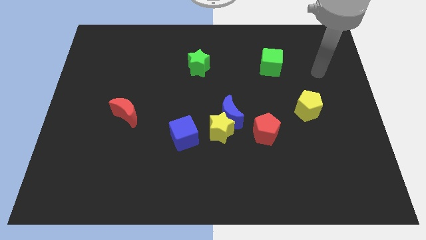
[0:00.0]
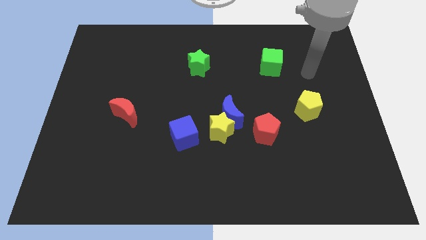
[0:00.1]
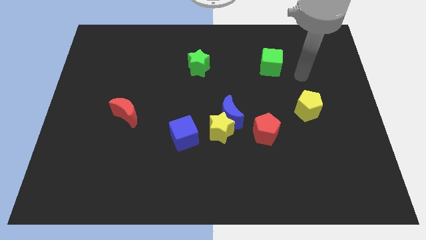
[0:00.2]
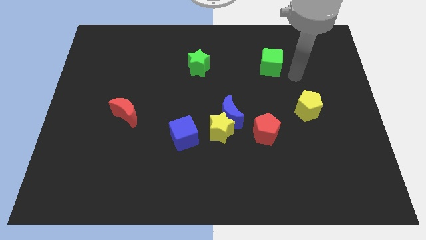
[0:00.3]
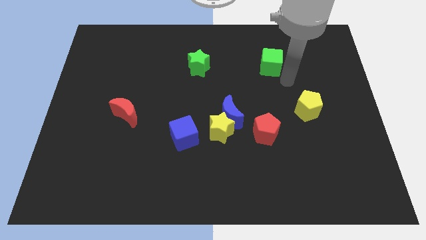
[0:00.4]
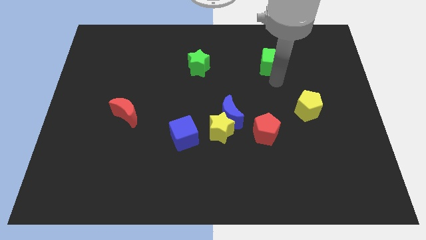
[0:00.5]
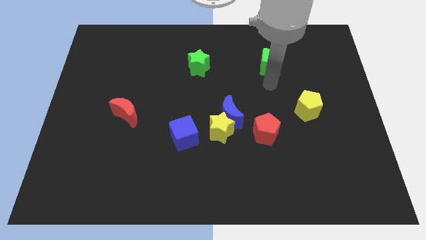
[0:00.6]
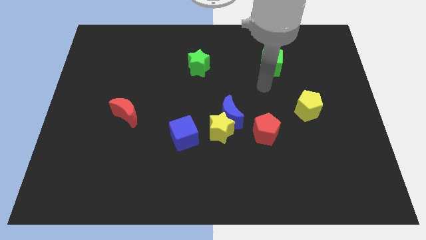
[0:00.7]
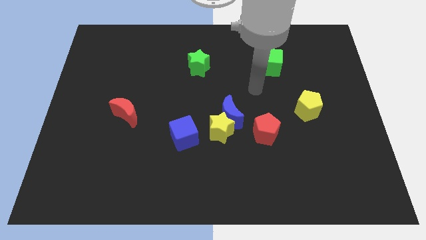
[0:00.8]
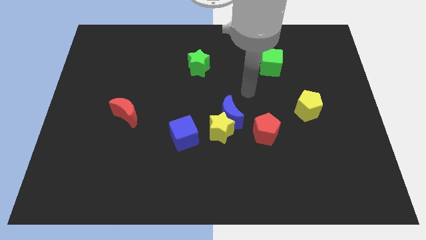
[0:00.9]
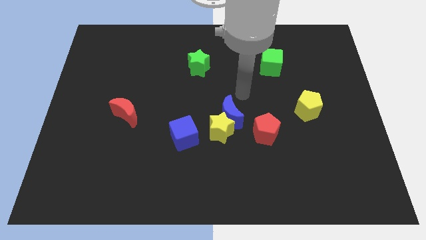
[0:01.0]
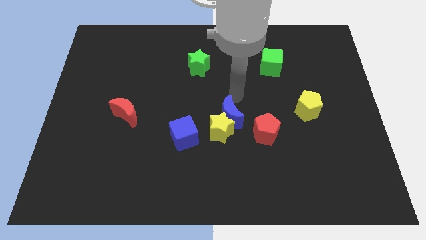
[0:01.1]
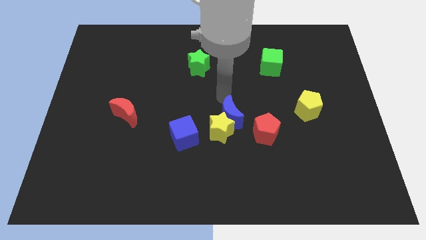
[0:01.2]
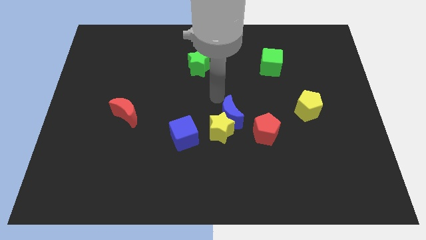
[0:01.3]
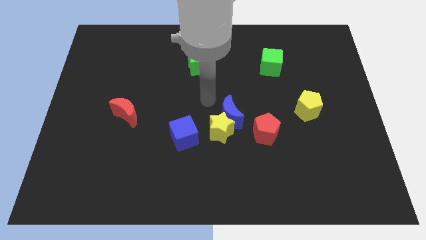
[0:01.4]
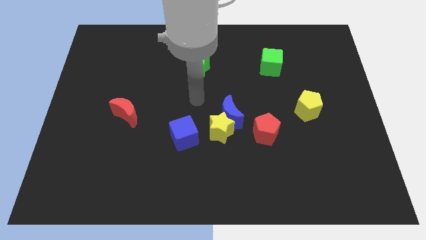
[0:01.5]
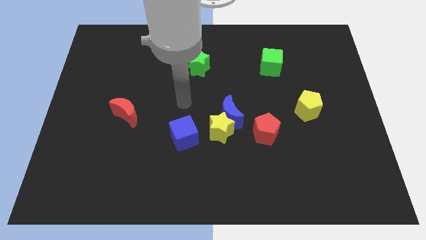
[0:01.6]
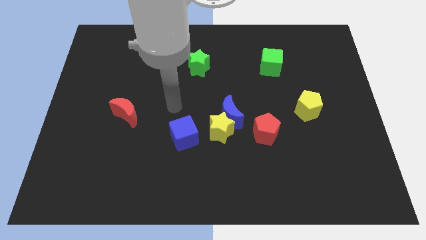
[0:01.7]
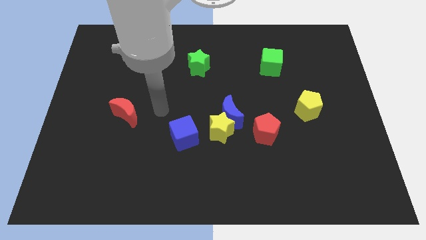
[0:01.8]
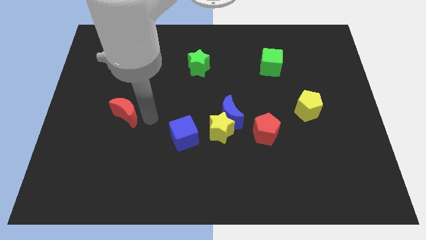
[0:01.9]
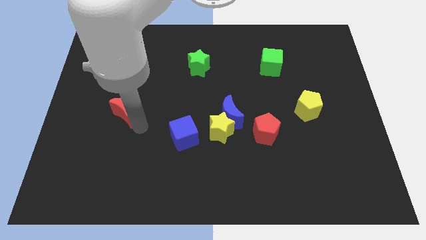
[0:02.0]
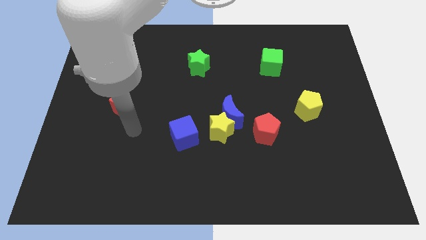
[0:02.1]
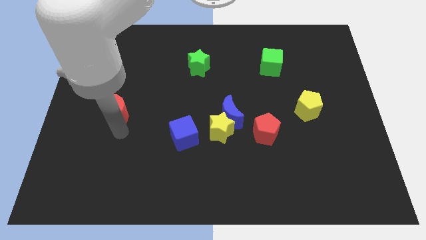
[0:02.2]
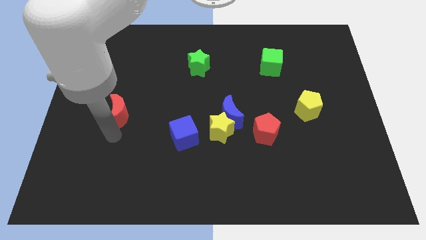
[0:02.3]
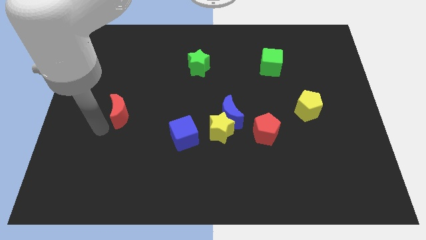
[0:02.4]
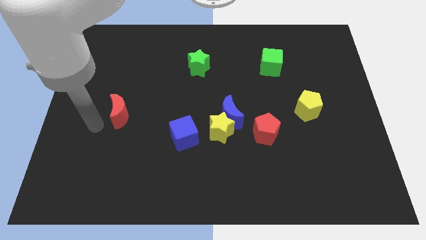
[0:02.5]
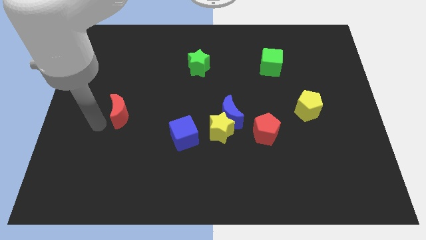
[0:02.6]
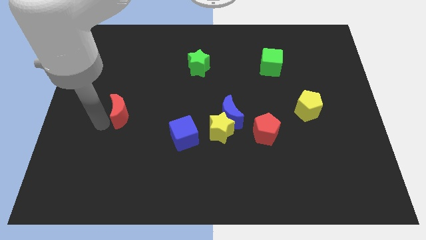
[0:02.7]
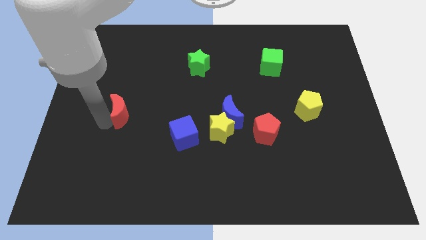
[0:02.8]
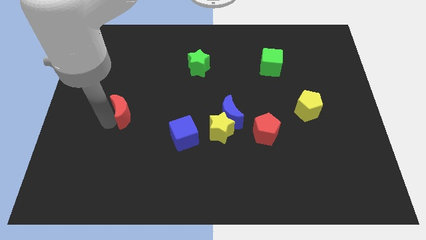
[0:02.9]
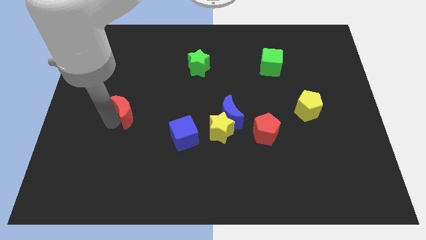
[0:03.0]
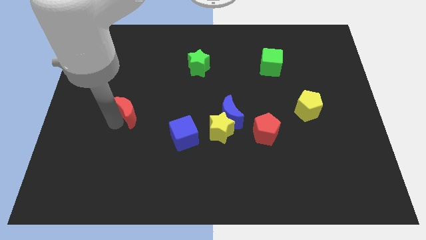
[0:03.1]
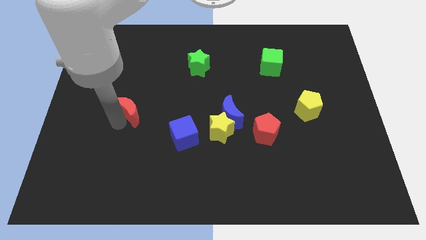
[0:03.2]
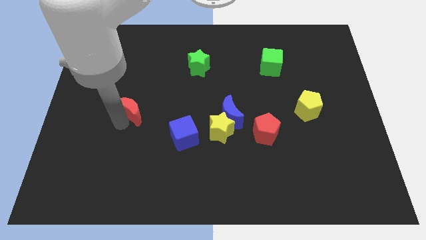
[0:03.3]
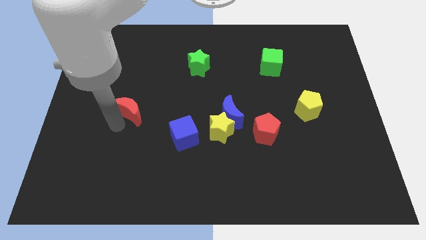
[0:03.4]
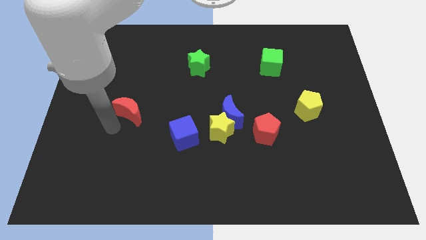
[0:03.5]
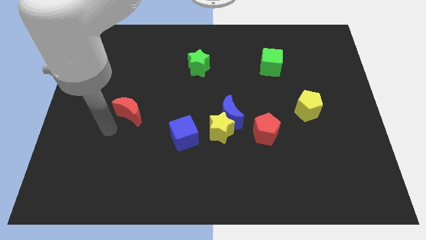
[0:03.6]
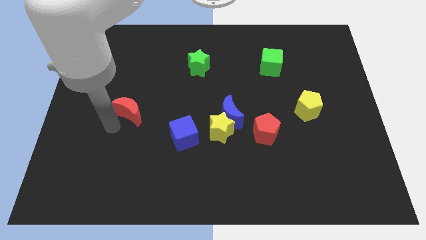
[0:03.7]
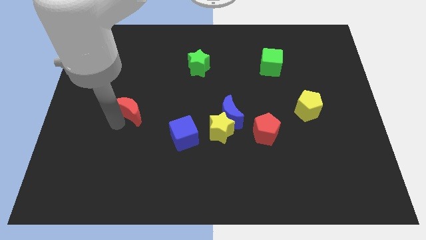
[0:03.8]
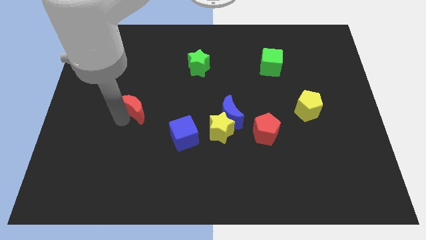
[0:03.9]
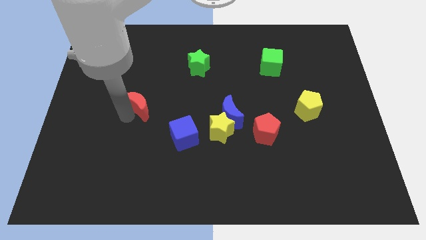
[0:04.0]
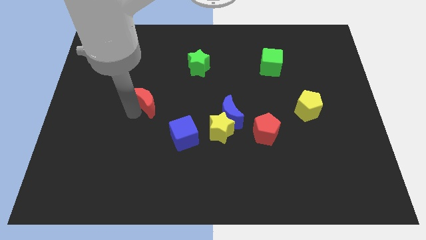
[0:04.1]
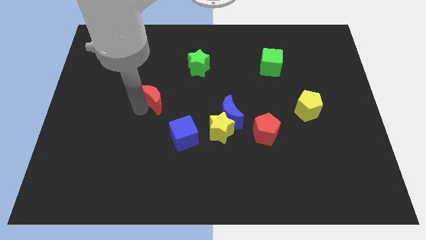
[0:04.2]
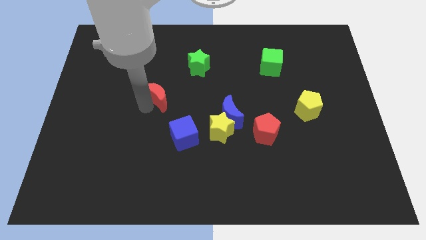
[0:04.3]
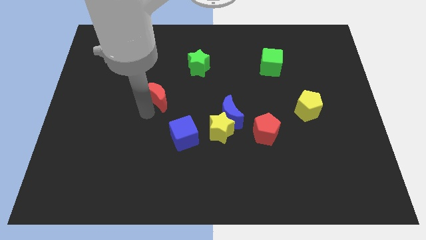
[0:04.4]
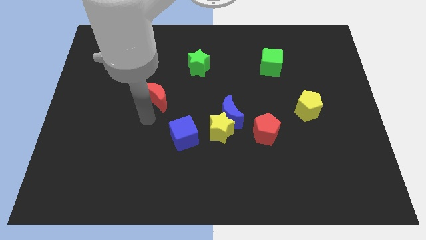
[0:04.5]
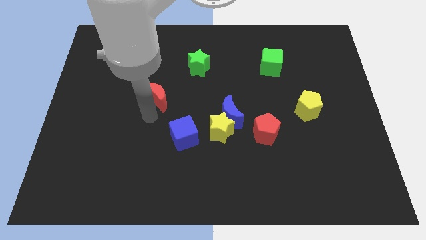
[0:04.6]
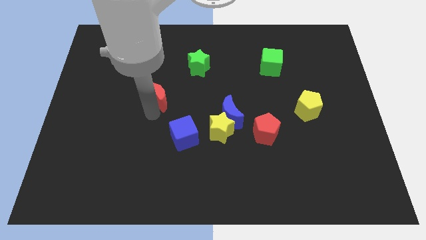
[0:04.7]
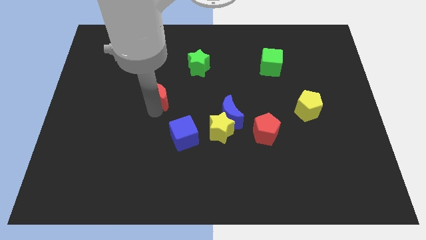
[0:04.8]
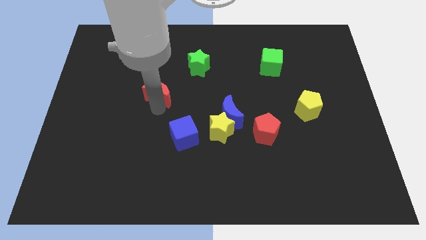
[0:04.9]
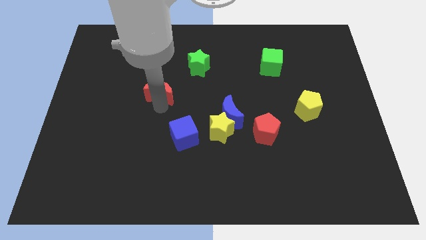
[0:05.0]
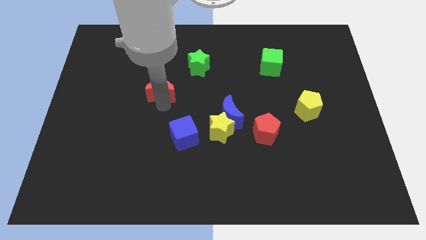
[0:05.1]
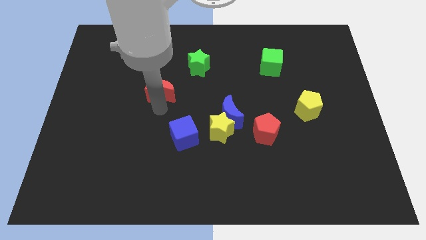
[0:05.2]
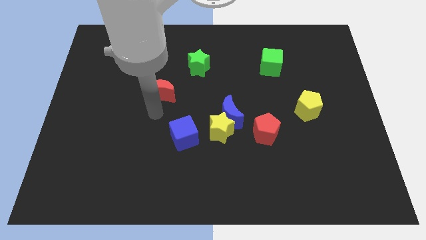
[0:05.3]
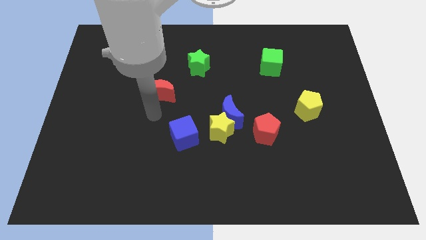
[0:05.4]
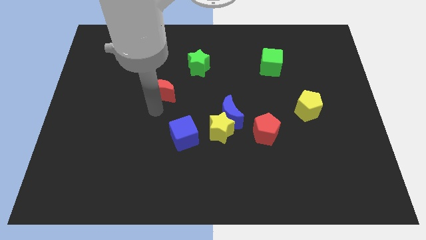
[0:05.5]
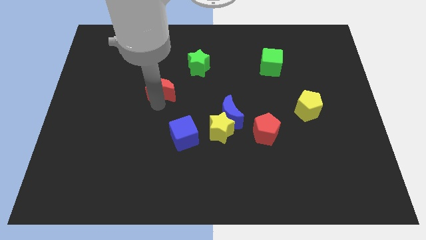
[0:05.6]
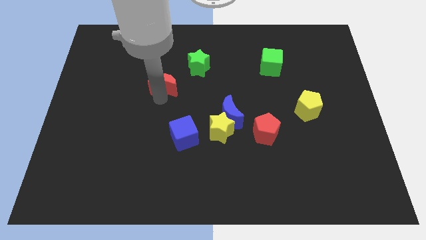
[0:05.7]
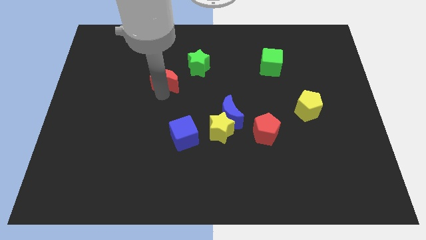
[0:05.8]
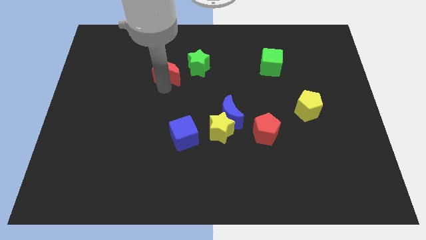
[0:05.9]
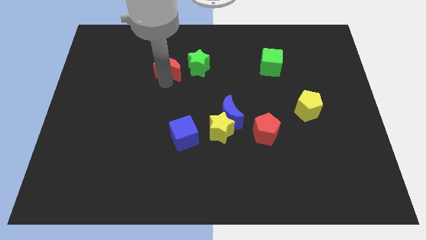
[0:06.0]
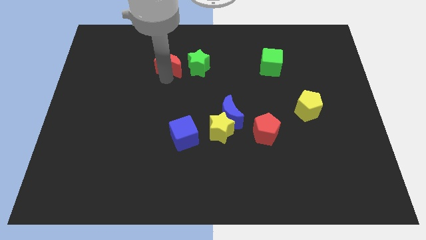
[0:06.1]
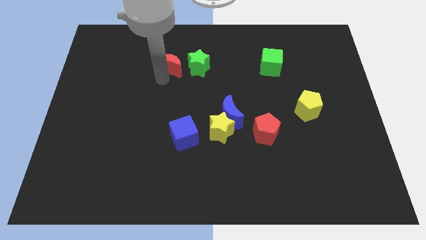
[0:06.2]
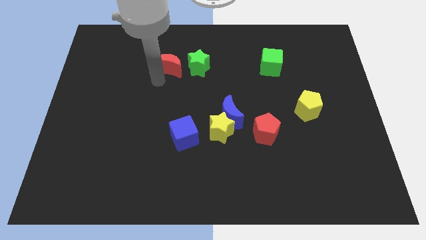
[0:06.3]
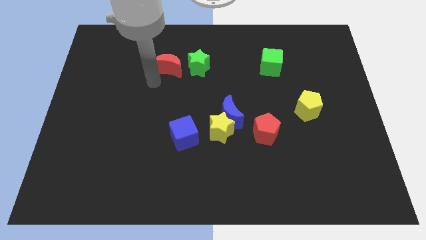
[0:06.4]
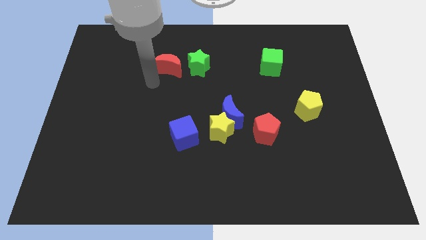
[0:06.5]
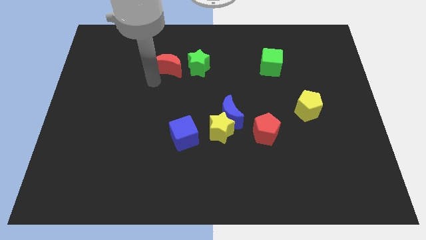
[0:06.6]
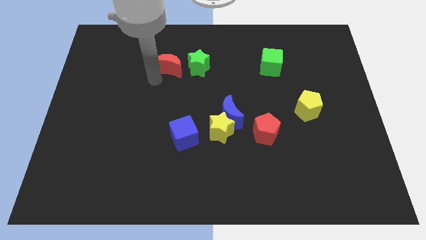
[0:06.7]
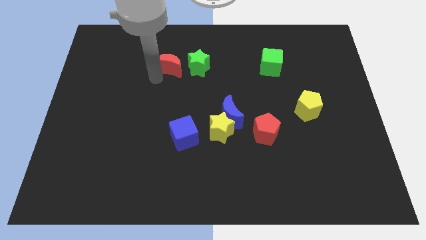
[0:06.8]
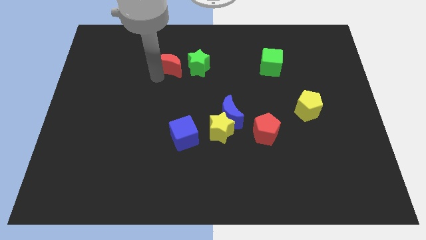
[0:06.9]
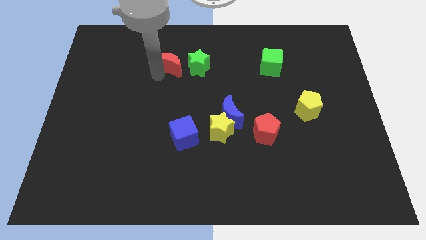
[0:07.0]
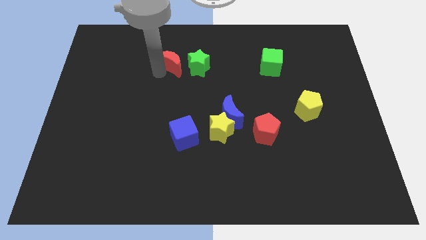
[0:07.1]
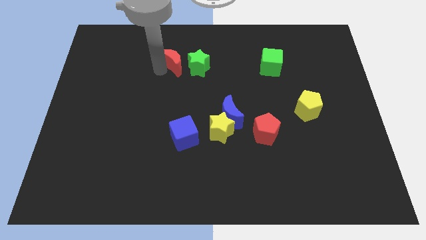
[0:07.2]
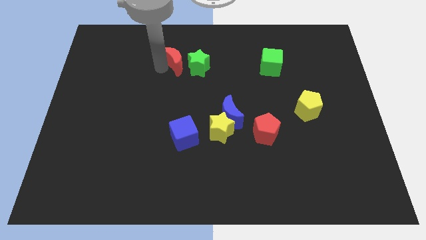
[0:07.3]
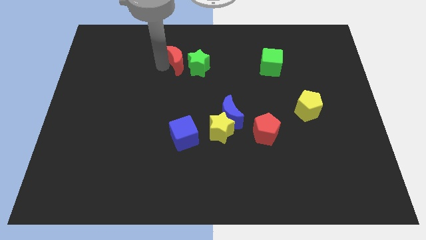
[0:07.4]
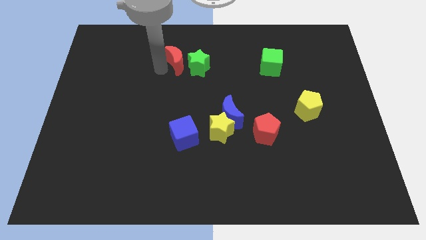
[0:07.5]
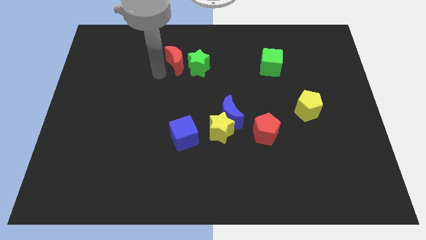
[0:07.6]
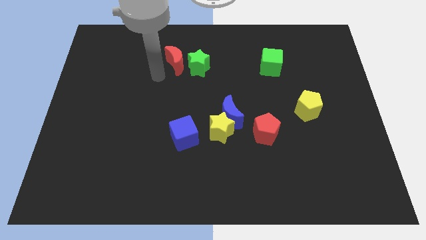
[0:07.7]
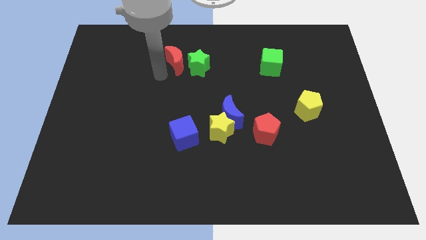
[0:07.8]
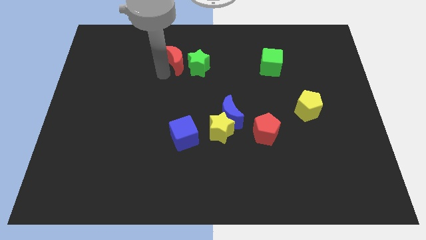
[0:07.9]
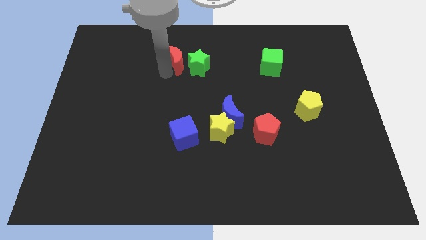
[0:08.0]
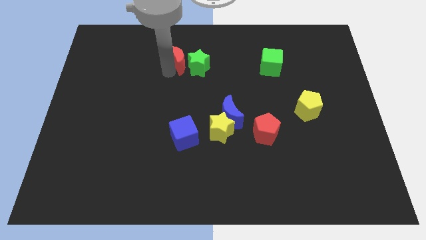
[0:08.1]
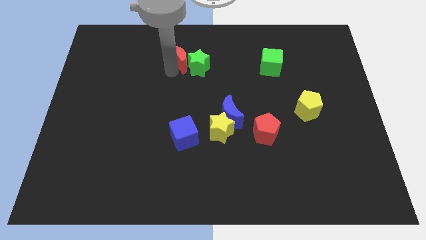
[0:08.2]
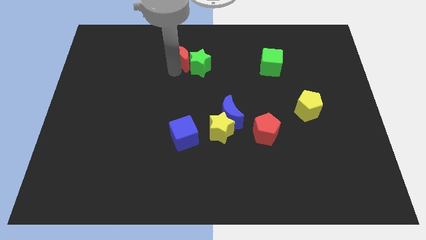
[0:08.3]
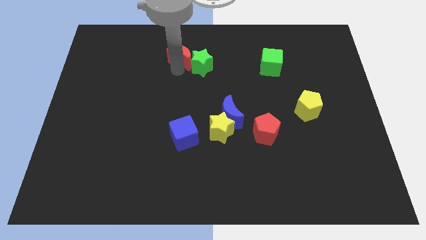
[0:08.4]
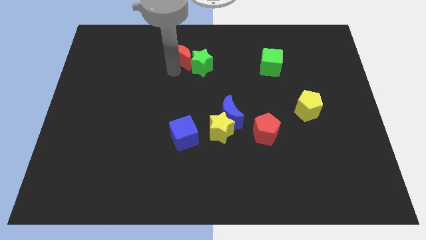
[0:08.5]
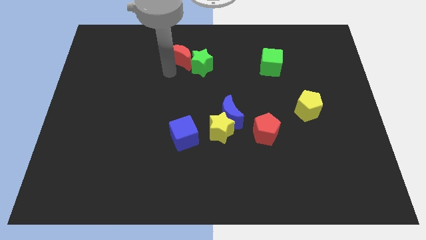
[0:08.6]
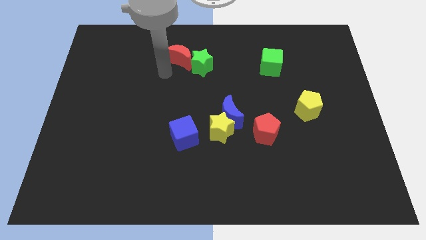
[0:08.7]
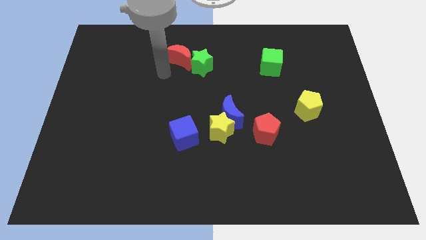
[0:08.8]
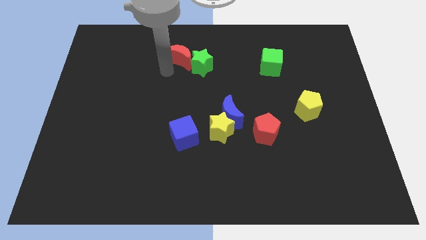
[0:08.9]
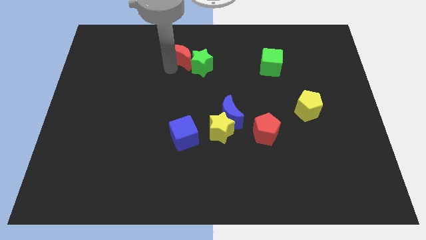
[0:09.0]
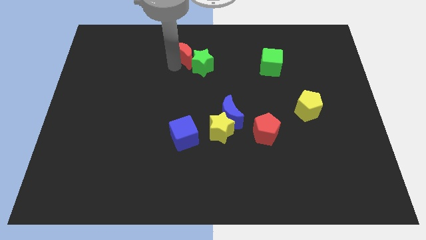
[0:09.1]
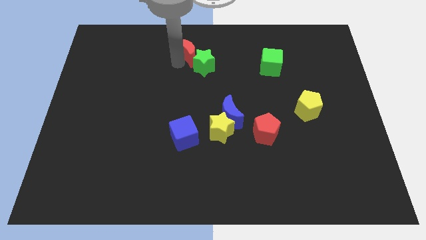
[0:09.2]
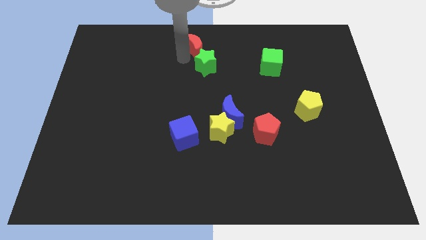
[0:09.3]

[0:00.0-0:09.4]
put the red moon to the top
